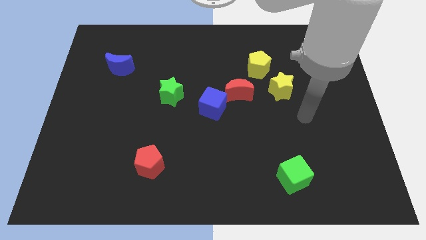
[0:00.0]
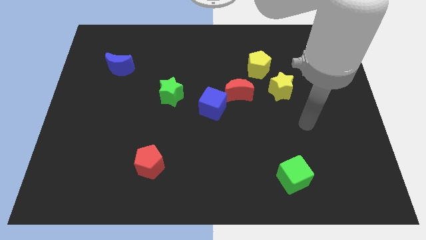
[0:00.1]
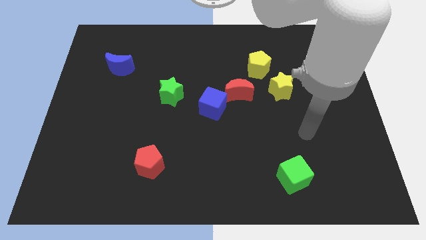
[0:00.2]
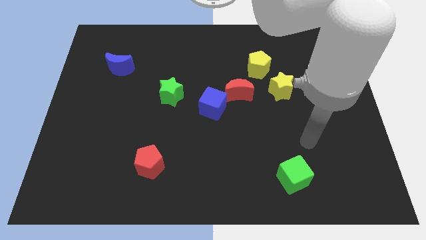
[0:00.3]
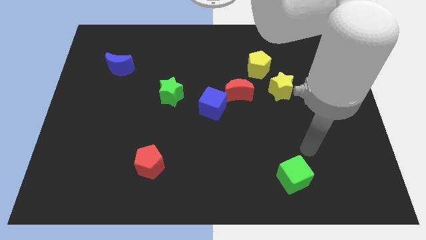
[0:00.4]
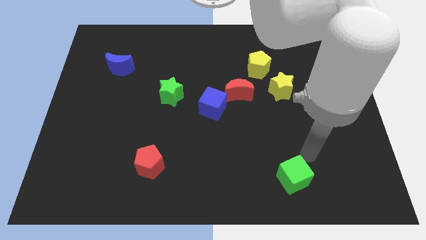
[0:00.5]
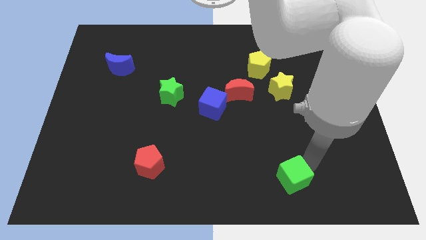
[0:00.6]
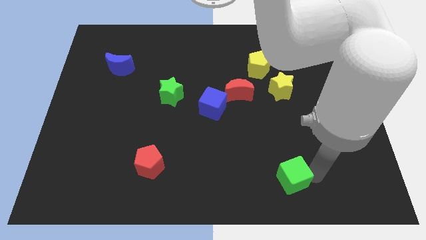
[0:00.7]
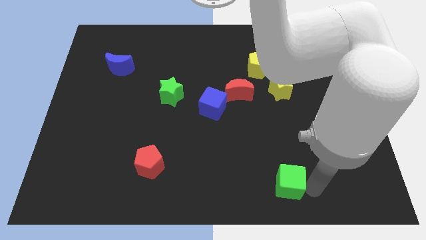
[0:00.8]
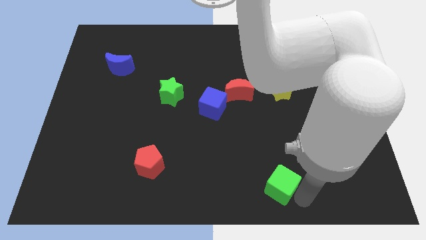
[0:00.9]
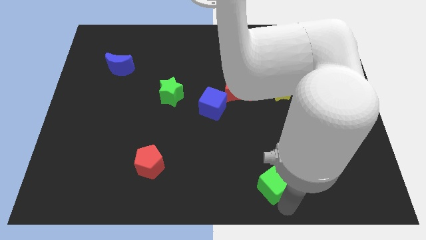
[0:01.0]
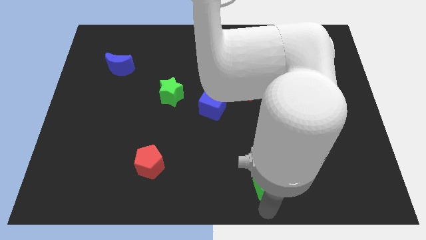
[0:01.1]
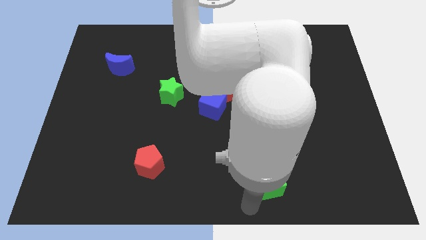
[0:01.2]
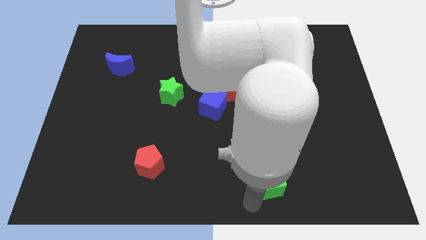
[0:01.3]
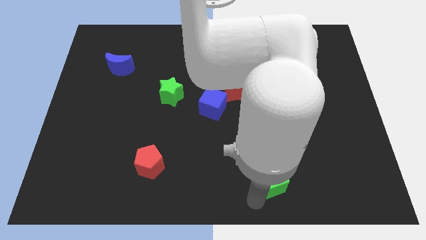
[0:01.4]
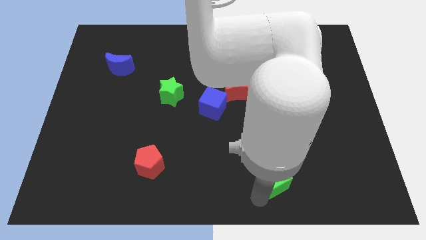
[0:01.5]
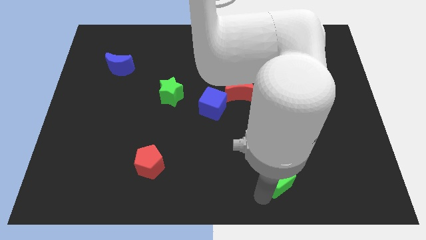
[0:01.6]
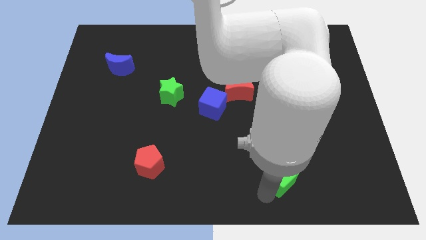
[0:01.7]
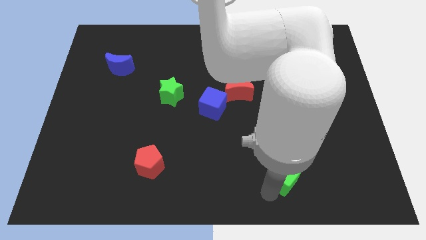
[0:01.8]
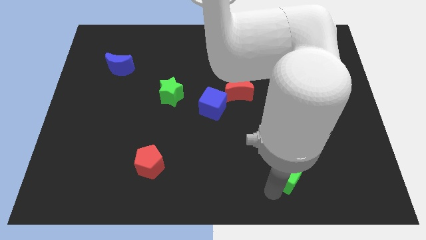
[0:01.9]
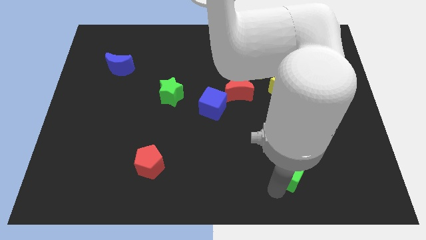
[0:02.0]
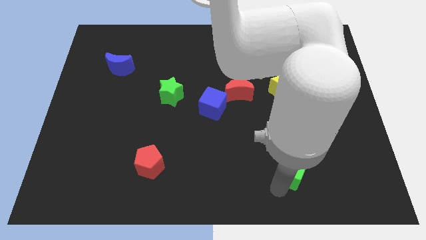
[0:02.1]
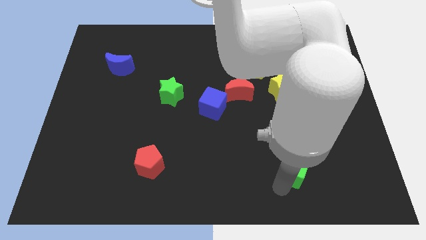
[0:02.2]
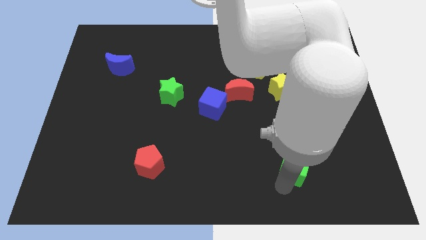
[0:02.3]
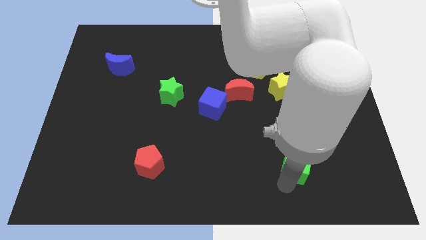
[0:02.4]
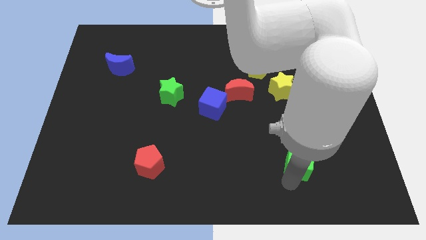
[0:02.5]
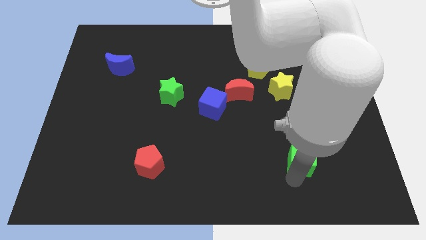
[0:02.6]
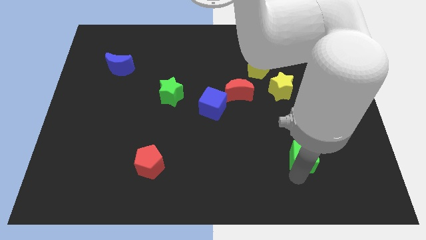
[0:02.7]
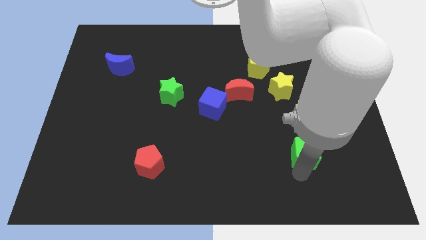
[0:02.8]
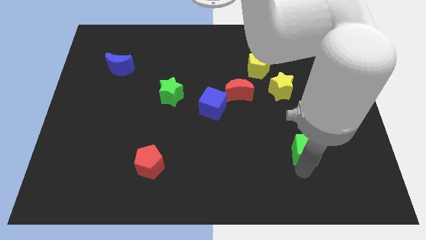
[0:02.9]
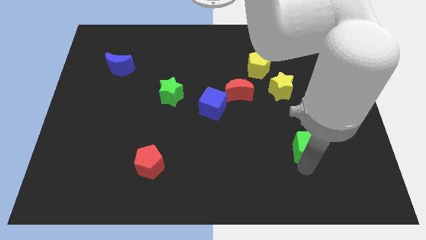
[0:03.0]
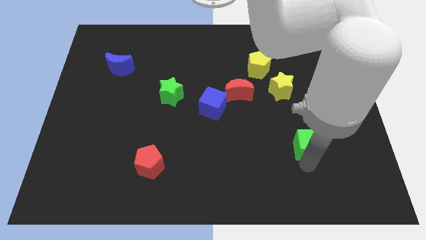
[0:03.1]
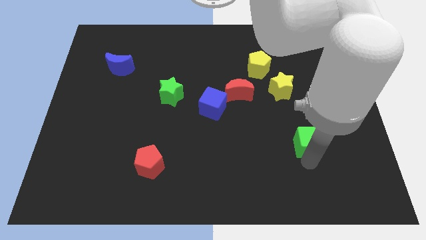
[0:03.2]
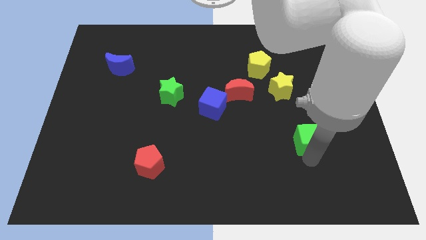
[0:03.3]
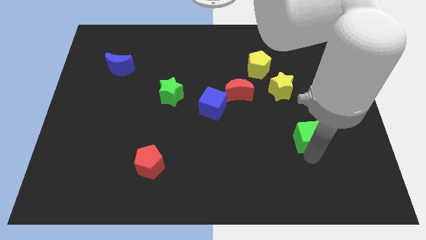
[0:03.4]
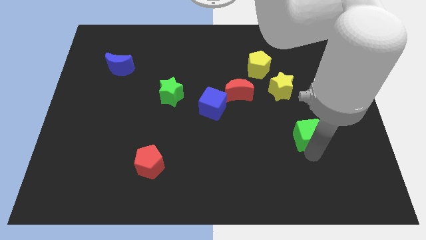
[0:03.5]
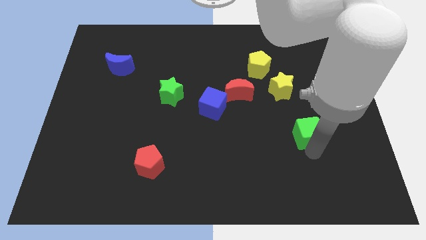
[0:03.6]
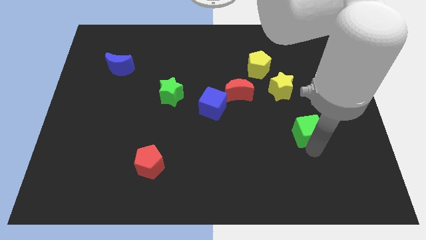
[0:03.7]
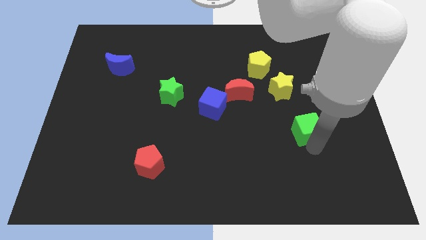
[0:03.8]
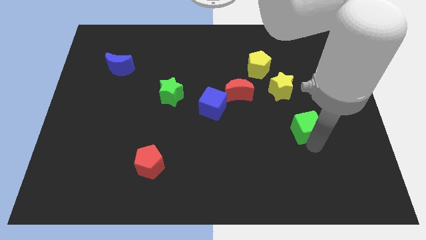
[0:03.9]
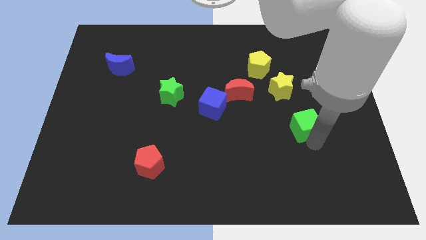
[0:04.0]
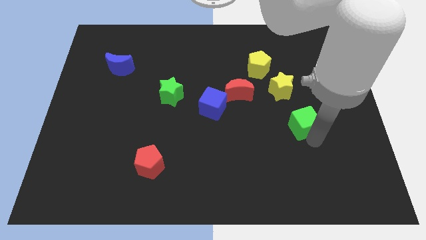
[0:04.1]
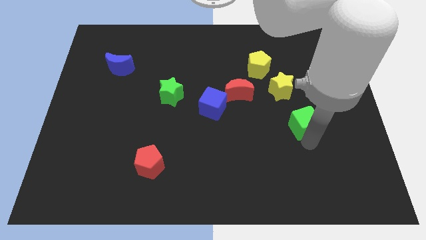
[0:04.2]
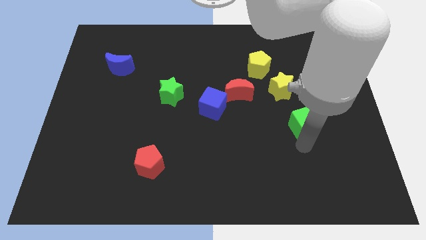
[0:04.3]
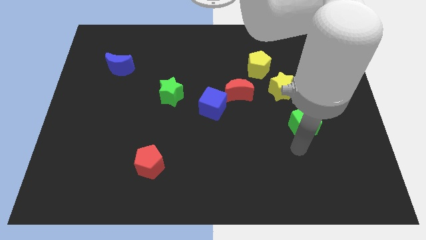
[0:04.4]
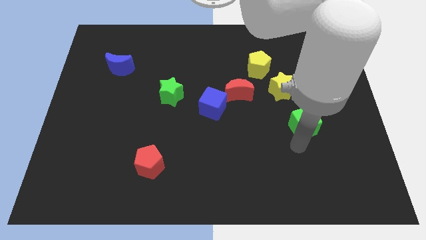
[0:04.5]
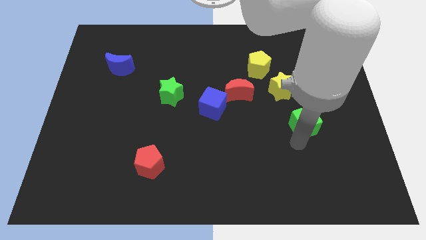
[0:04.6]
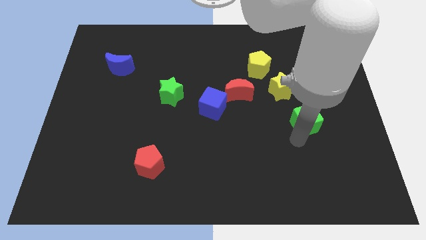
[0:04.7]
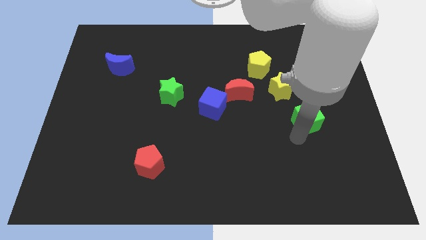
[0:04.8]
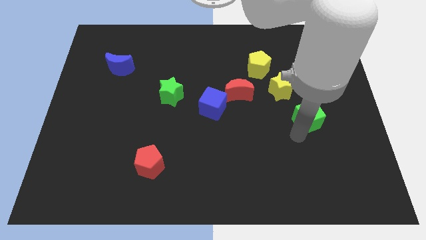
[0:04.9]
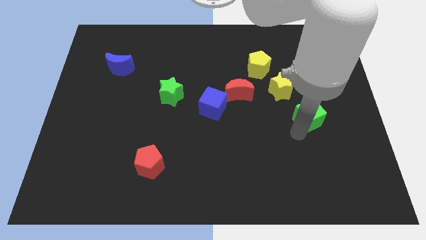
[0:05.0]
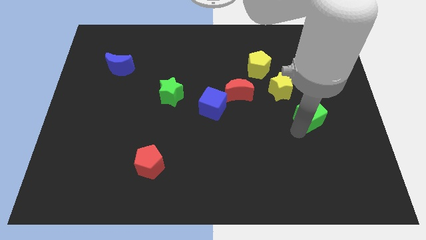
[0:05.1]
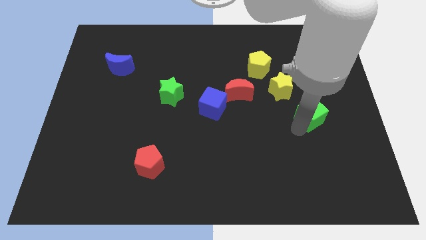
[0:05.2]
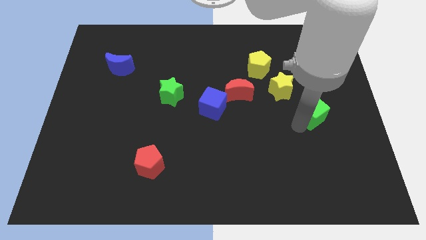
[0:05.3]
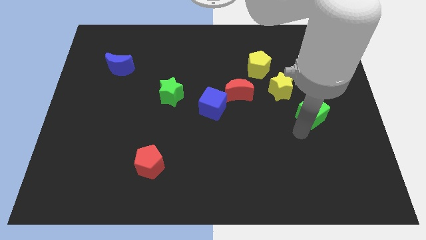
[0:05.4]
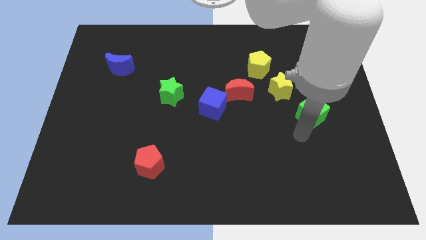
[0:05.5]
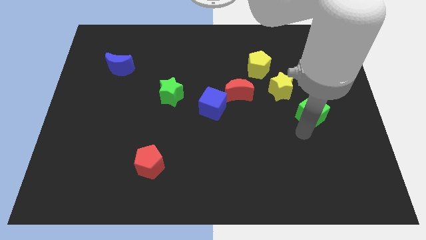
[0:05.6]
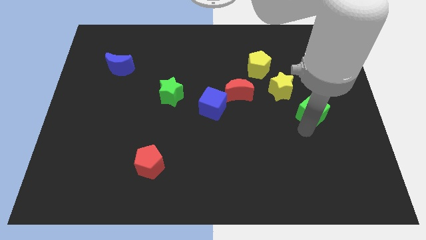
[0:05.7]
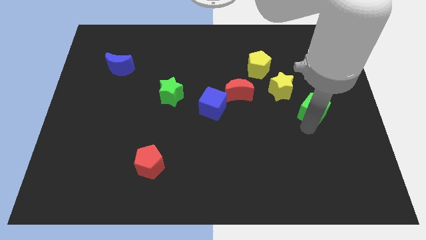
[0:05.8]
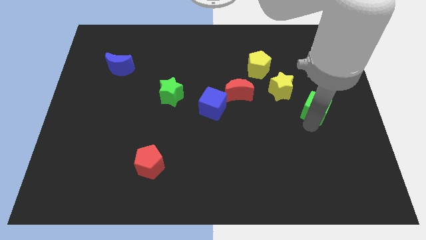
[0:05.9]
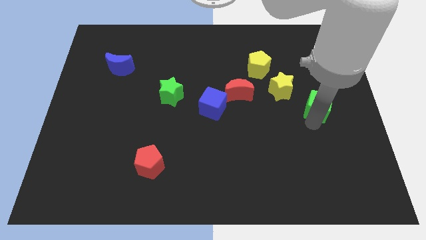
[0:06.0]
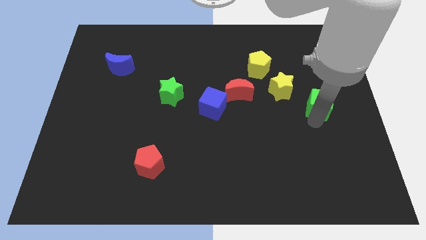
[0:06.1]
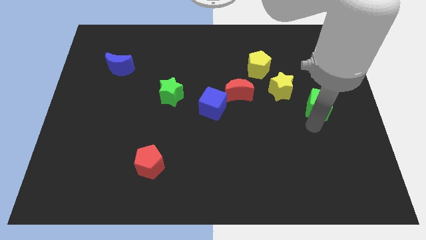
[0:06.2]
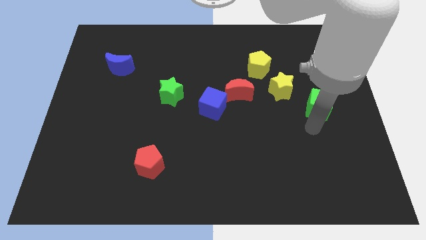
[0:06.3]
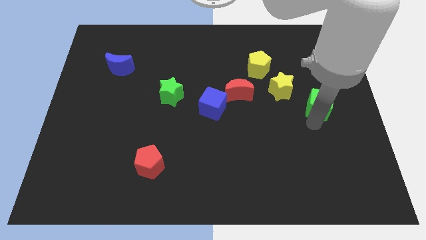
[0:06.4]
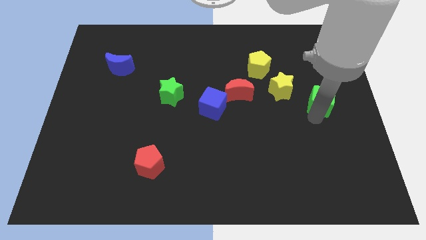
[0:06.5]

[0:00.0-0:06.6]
push the green cube right of the yellow star

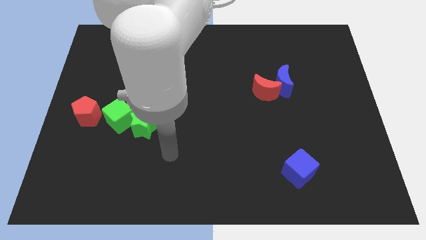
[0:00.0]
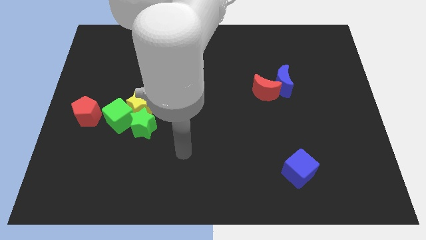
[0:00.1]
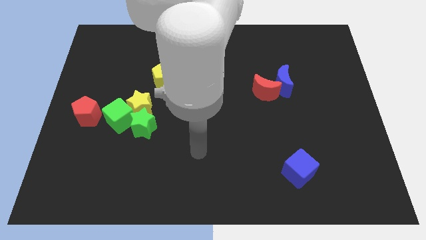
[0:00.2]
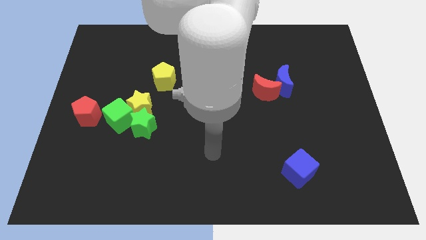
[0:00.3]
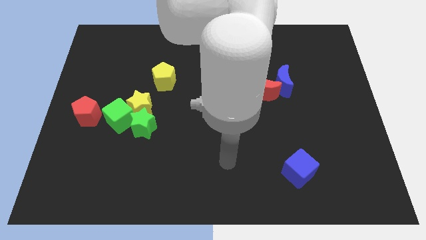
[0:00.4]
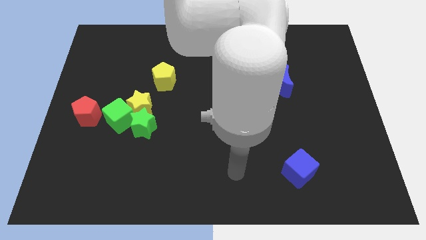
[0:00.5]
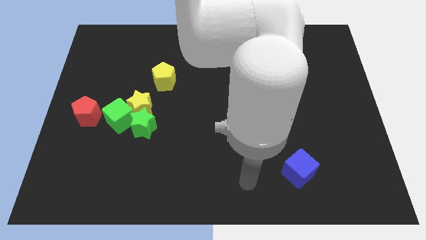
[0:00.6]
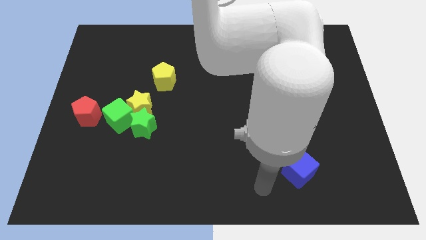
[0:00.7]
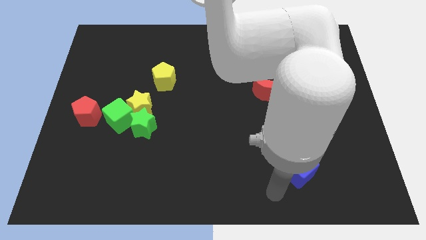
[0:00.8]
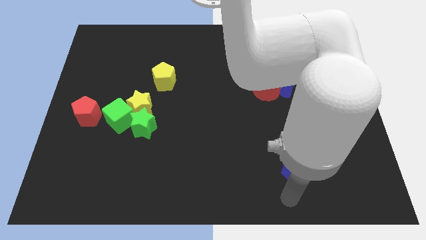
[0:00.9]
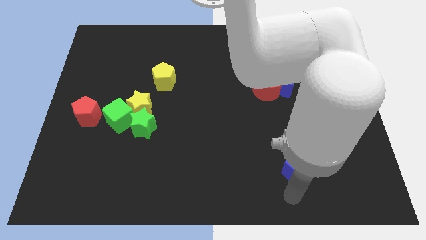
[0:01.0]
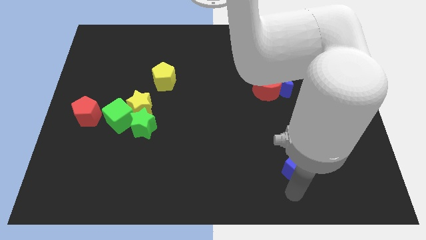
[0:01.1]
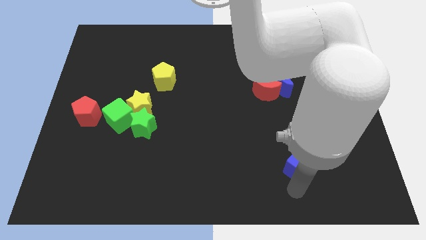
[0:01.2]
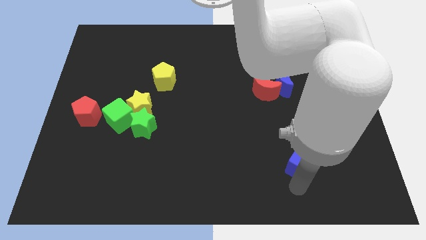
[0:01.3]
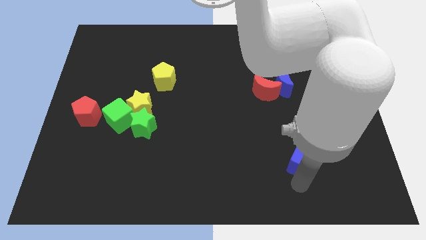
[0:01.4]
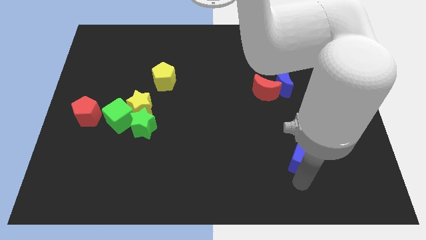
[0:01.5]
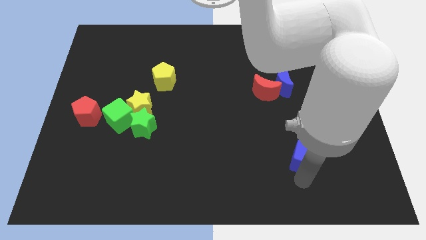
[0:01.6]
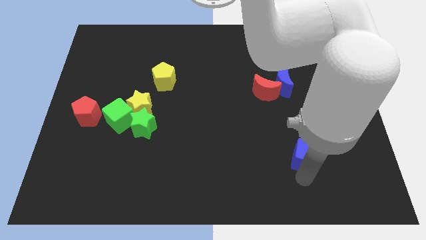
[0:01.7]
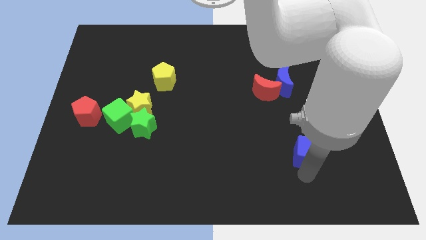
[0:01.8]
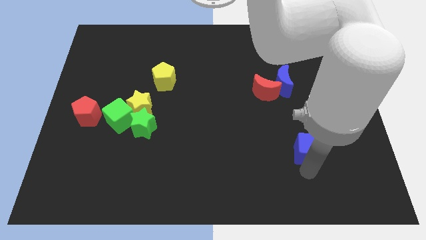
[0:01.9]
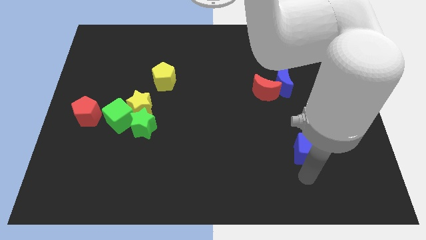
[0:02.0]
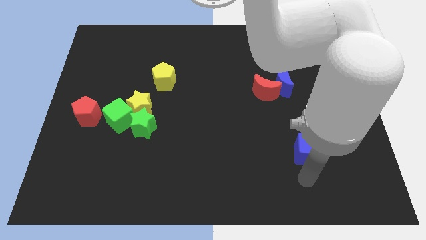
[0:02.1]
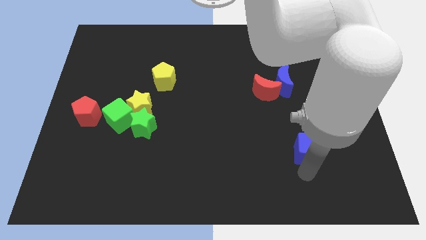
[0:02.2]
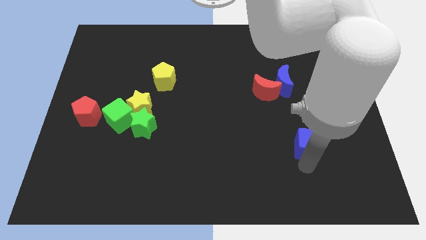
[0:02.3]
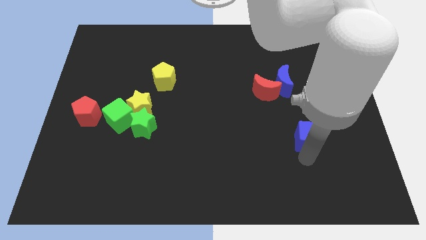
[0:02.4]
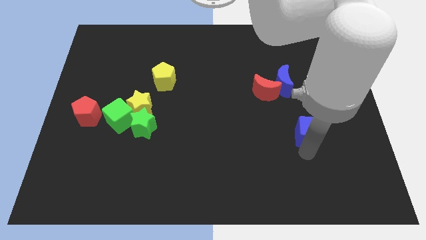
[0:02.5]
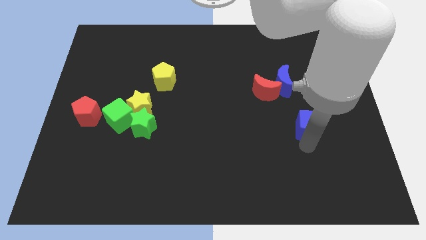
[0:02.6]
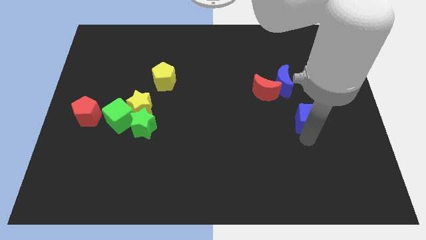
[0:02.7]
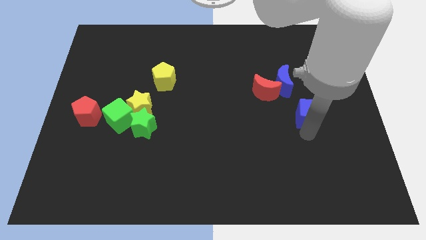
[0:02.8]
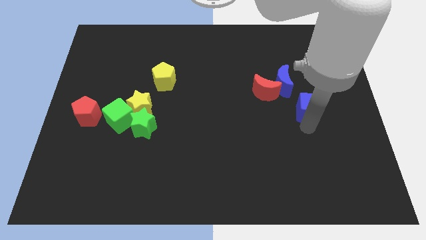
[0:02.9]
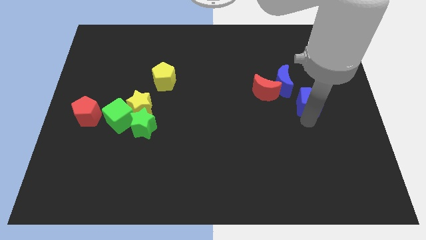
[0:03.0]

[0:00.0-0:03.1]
put the blue cube to the right of the red moon
